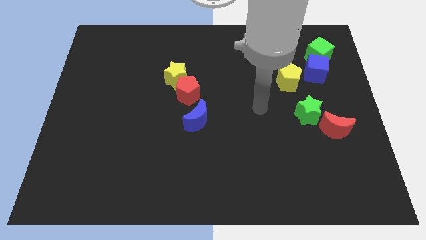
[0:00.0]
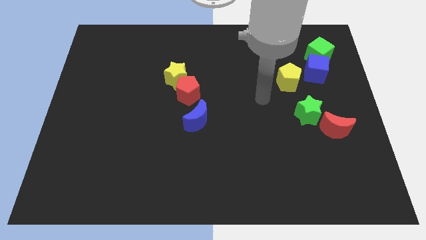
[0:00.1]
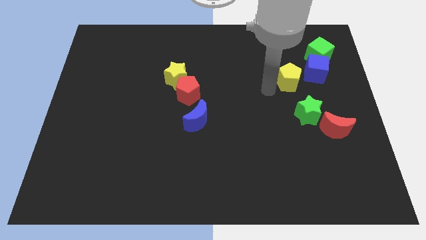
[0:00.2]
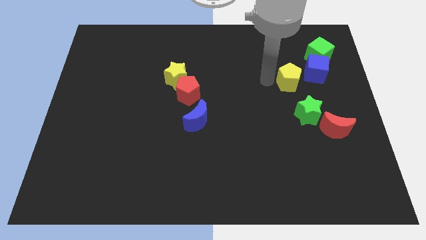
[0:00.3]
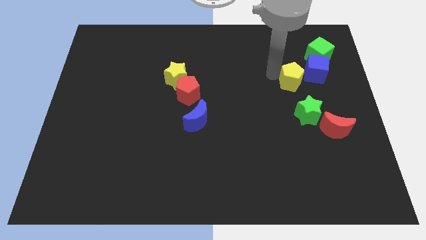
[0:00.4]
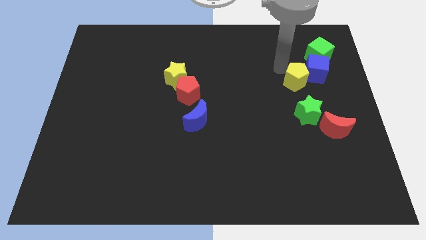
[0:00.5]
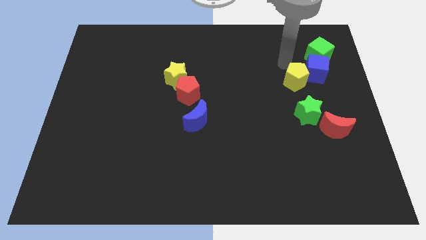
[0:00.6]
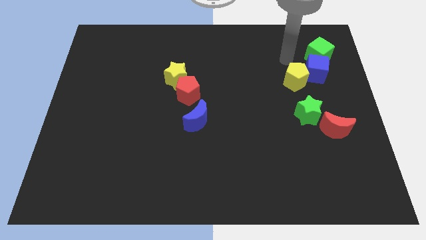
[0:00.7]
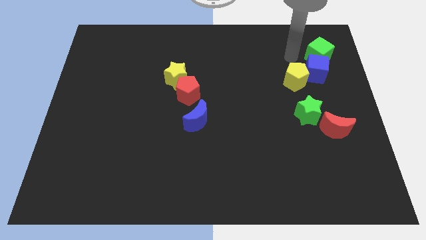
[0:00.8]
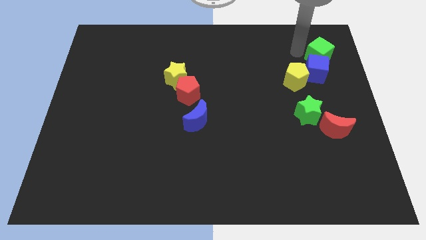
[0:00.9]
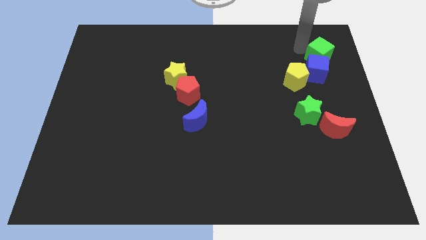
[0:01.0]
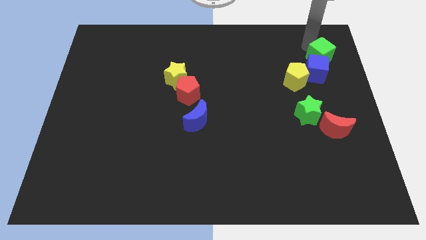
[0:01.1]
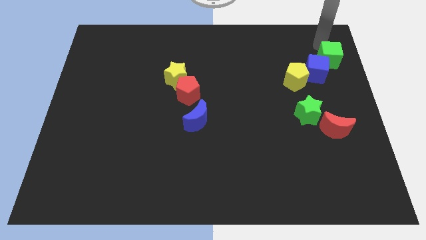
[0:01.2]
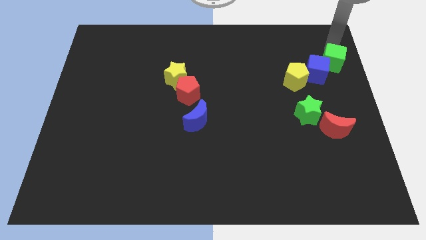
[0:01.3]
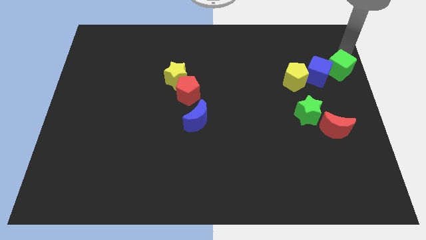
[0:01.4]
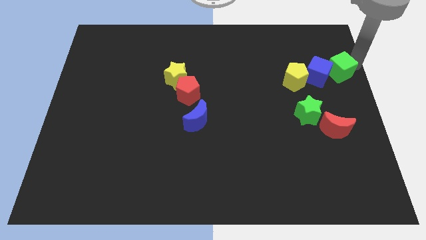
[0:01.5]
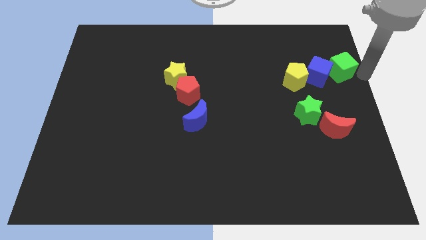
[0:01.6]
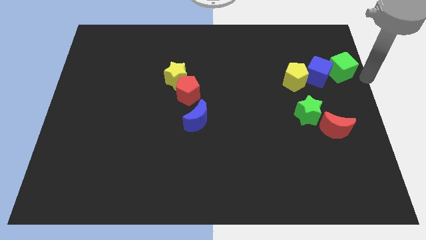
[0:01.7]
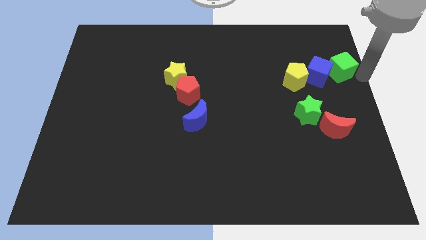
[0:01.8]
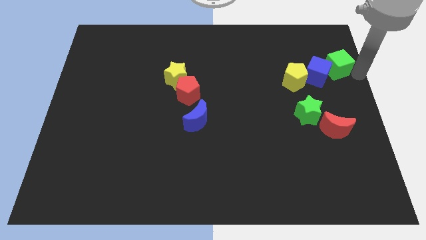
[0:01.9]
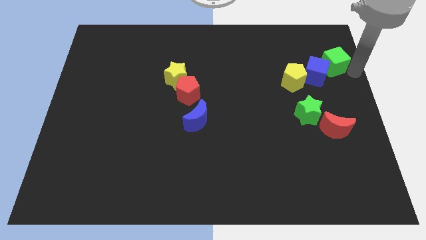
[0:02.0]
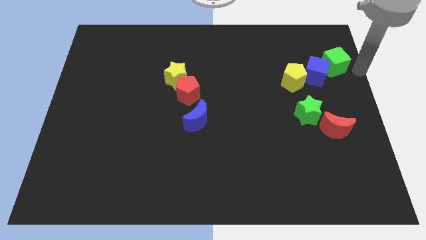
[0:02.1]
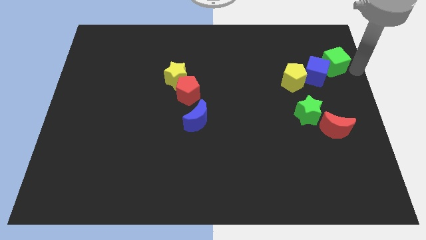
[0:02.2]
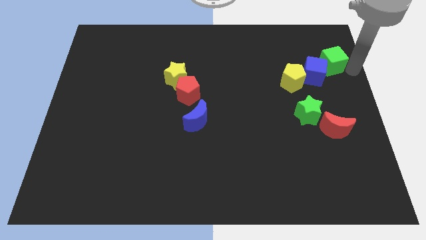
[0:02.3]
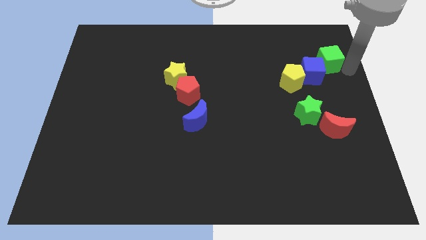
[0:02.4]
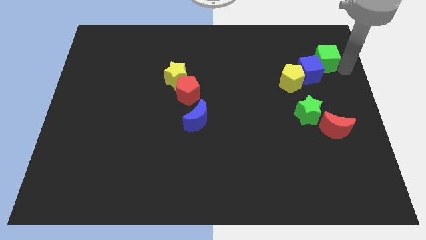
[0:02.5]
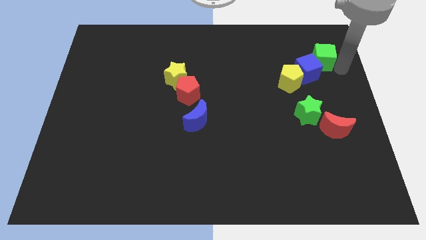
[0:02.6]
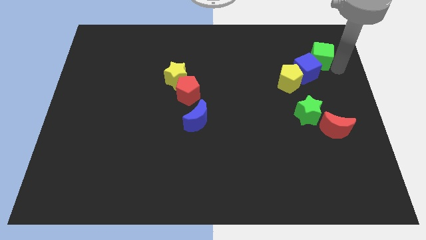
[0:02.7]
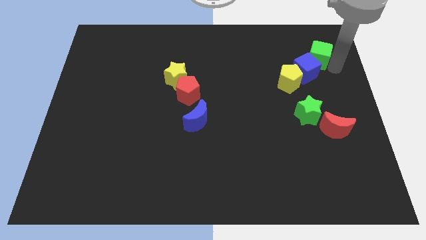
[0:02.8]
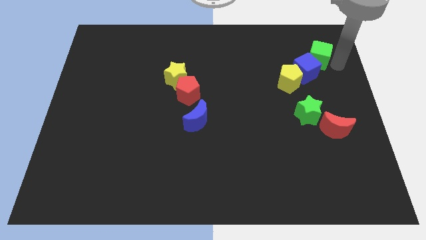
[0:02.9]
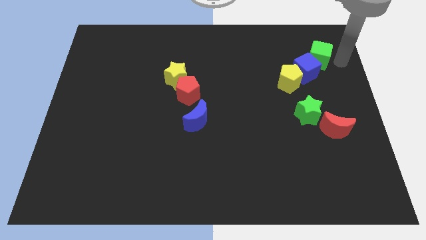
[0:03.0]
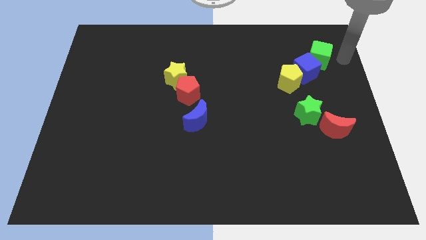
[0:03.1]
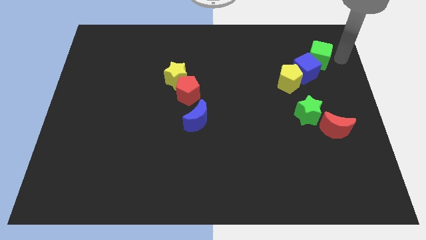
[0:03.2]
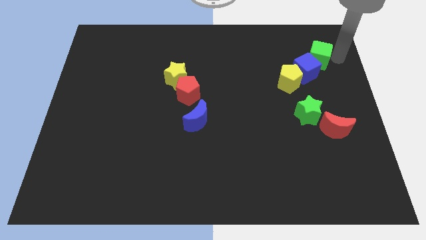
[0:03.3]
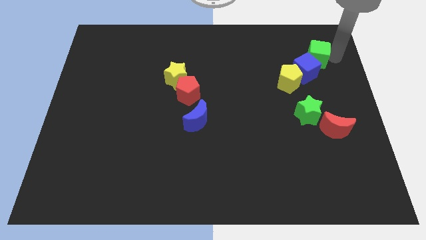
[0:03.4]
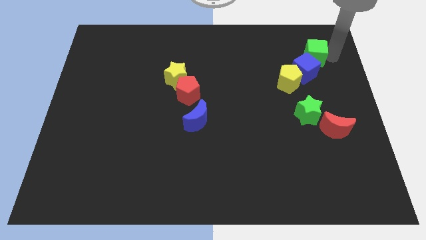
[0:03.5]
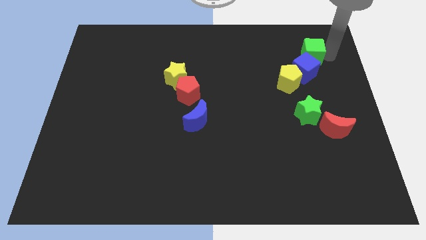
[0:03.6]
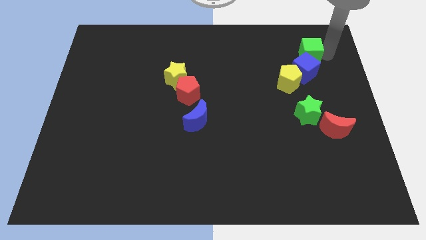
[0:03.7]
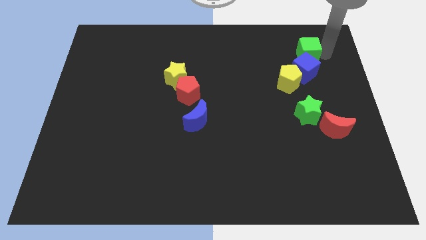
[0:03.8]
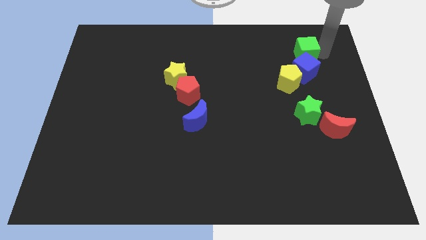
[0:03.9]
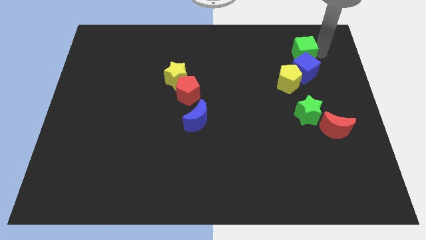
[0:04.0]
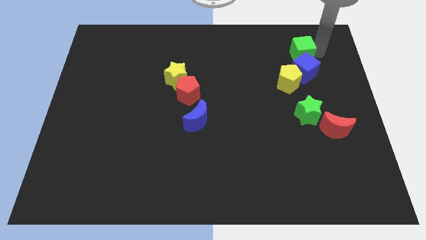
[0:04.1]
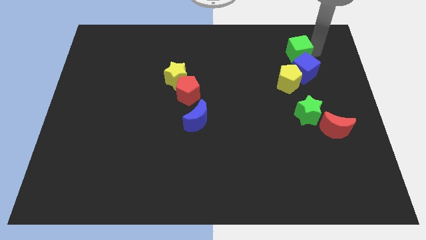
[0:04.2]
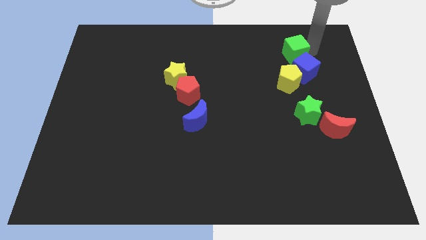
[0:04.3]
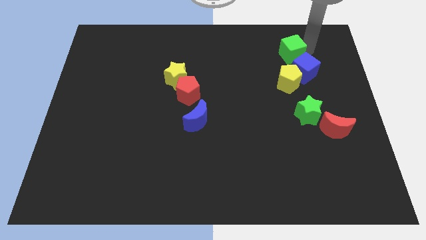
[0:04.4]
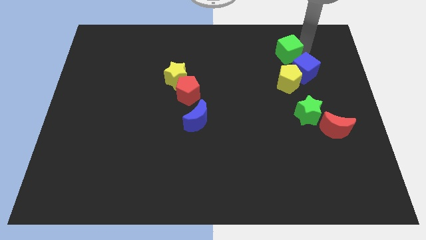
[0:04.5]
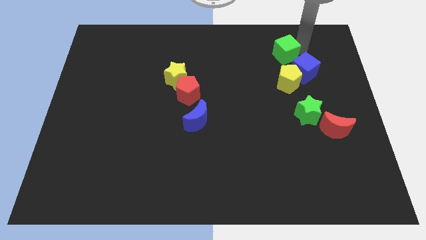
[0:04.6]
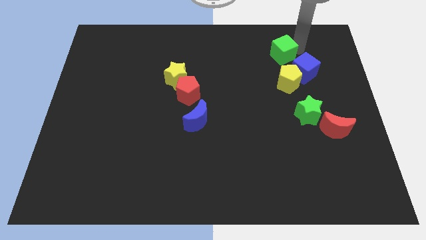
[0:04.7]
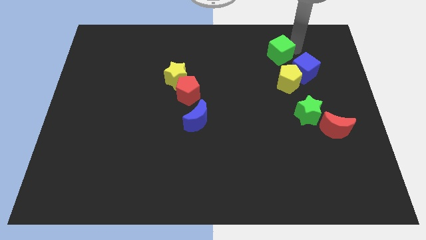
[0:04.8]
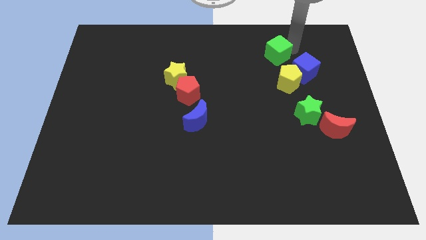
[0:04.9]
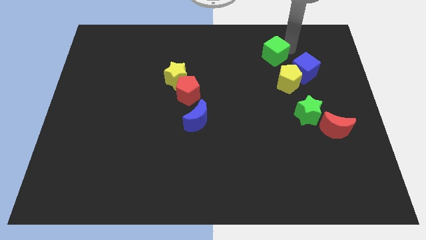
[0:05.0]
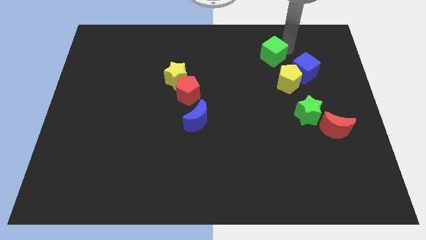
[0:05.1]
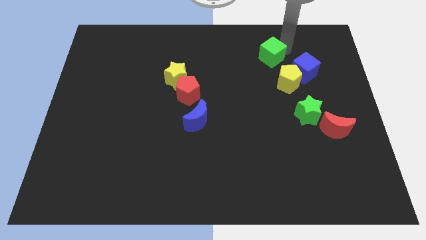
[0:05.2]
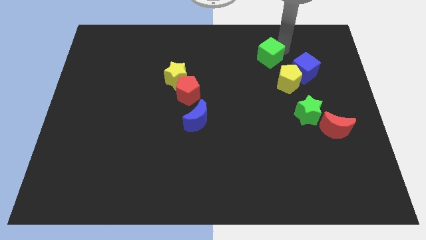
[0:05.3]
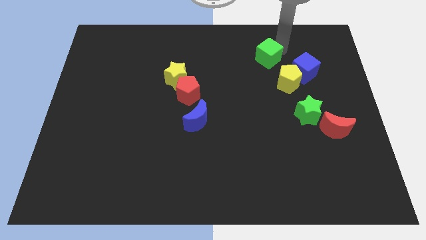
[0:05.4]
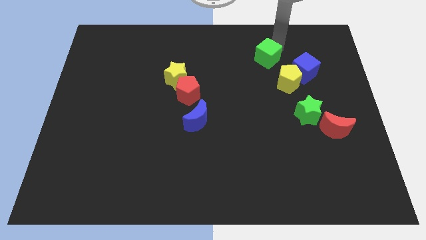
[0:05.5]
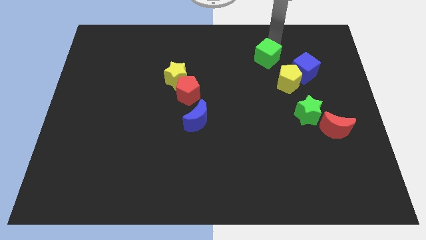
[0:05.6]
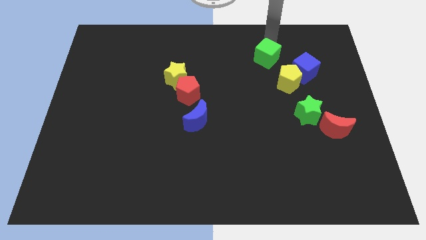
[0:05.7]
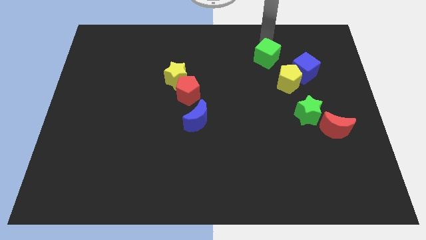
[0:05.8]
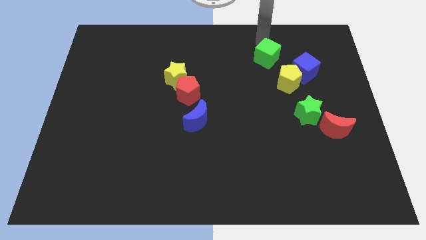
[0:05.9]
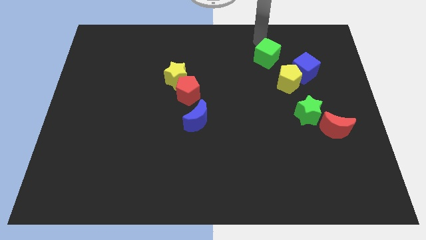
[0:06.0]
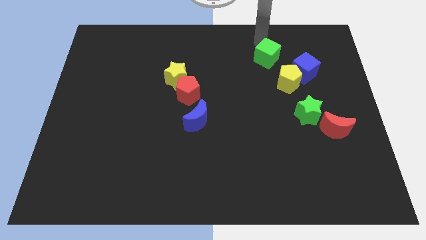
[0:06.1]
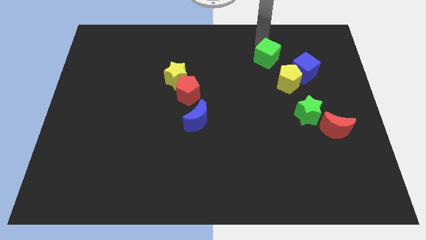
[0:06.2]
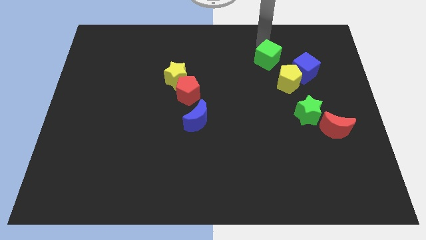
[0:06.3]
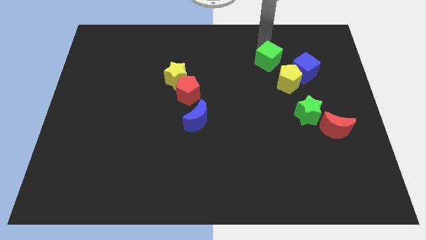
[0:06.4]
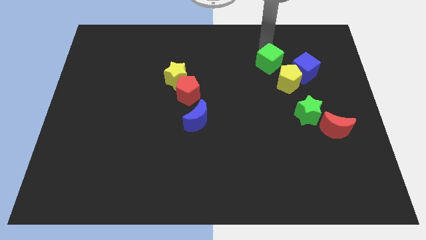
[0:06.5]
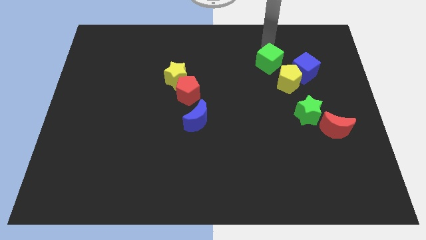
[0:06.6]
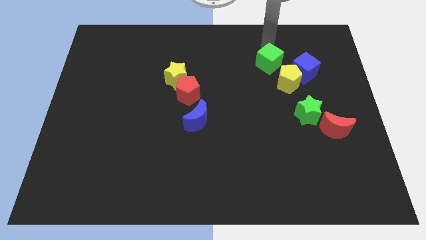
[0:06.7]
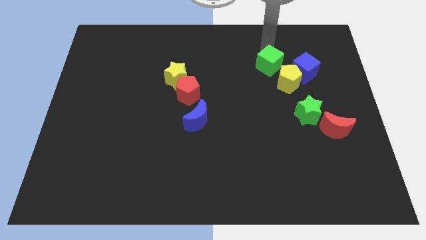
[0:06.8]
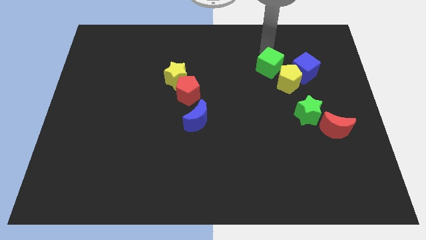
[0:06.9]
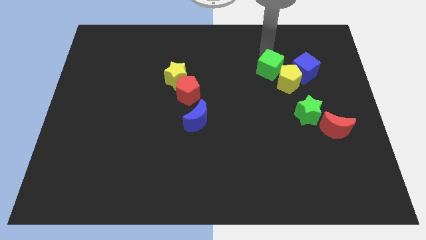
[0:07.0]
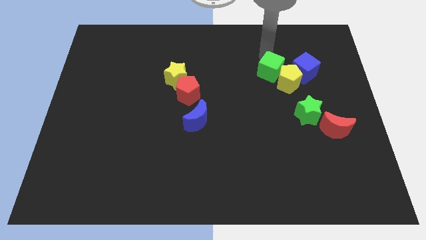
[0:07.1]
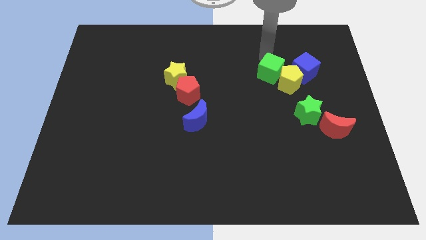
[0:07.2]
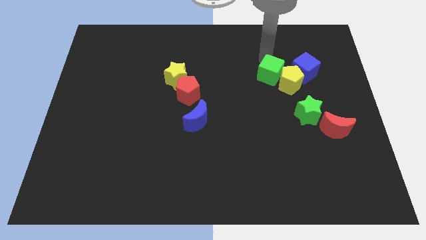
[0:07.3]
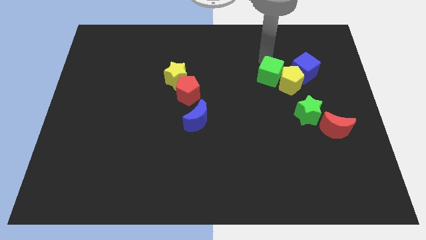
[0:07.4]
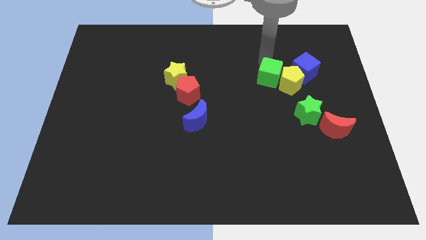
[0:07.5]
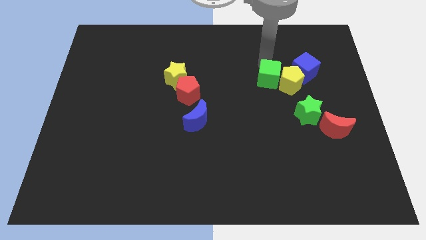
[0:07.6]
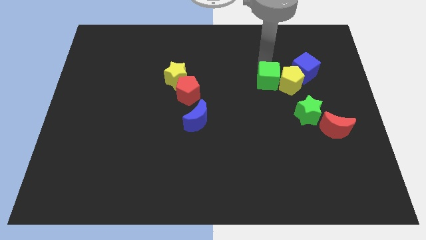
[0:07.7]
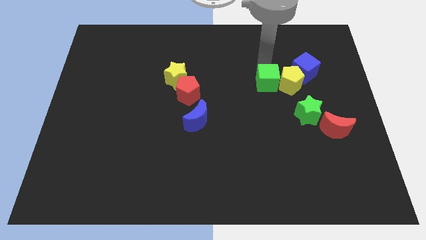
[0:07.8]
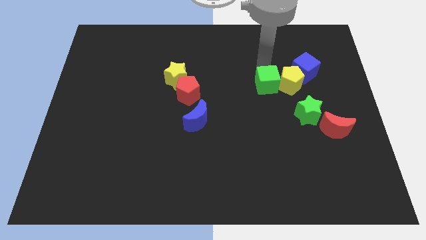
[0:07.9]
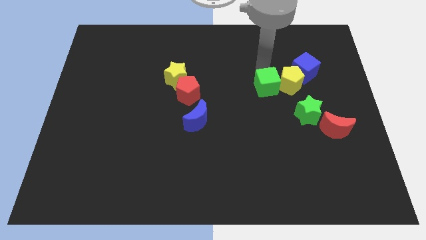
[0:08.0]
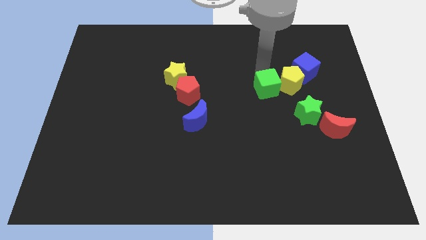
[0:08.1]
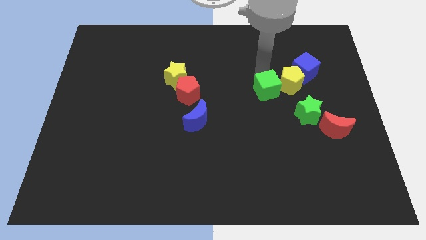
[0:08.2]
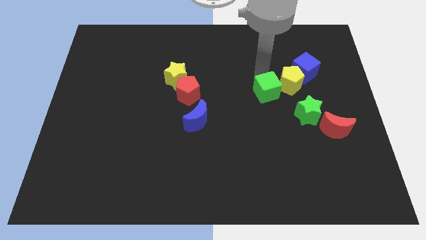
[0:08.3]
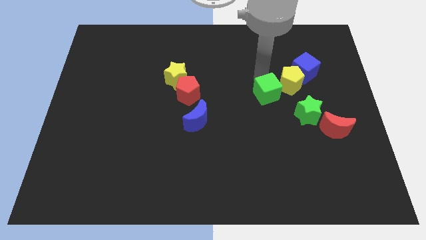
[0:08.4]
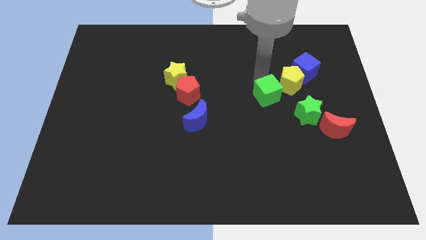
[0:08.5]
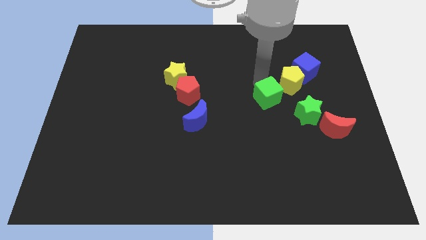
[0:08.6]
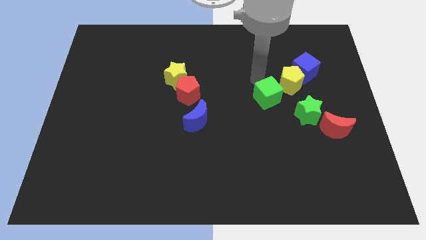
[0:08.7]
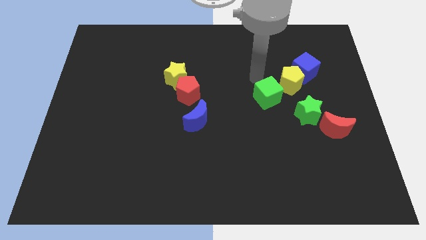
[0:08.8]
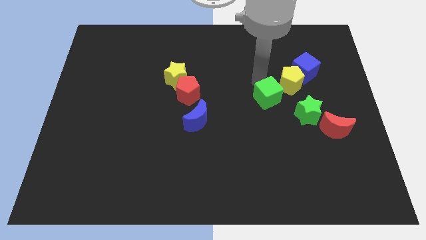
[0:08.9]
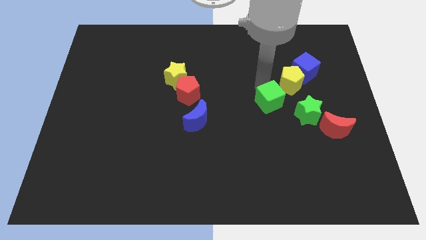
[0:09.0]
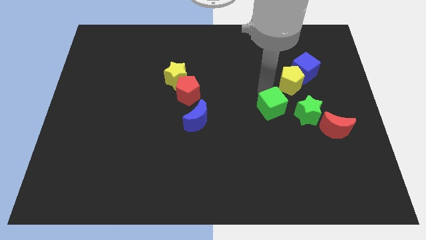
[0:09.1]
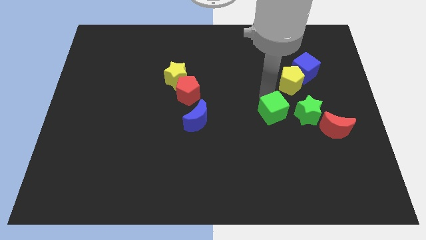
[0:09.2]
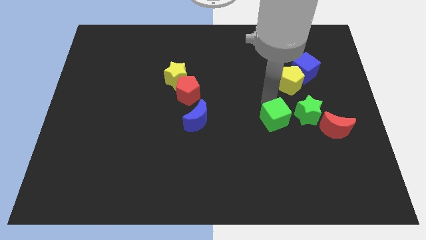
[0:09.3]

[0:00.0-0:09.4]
put the green cube to the bottom left of the green star
